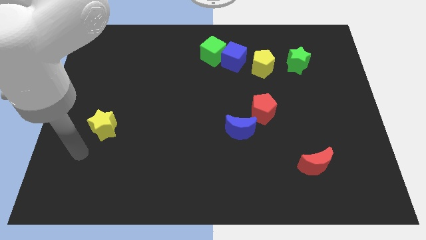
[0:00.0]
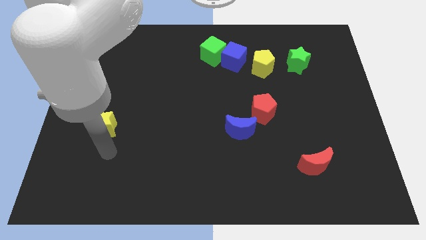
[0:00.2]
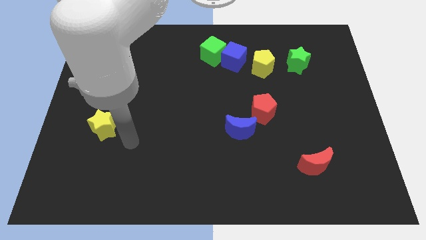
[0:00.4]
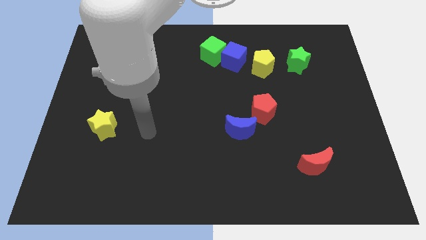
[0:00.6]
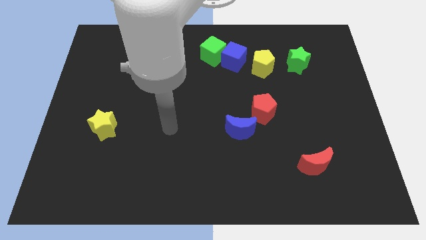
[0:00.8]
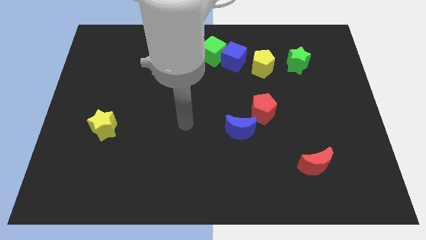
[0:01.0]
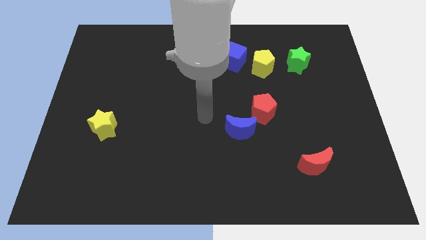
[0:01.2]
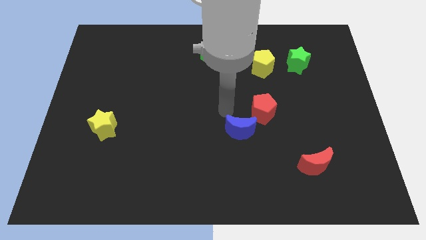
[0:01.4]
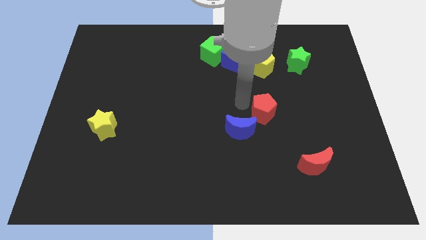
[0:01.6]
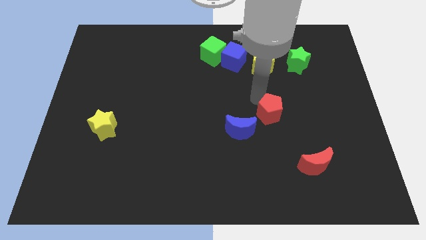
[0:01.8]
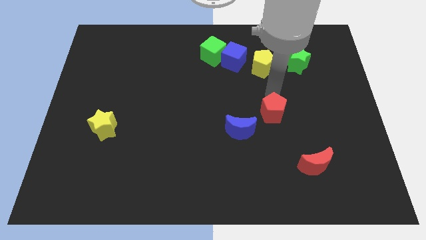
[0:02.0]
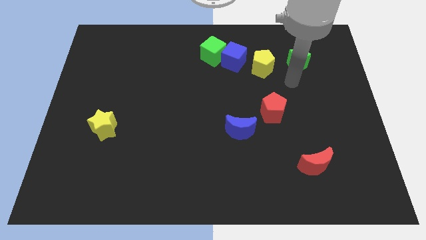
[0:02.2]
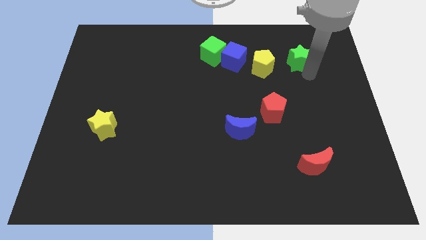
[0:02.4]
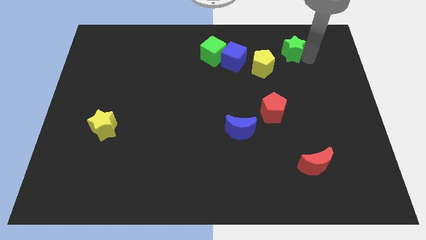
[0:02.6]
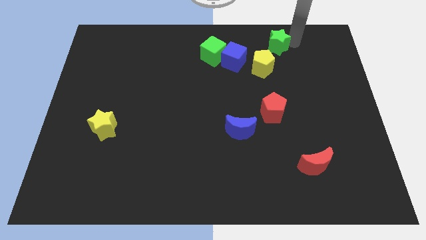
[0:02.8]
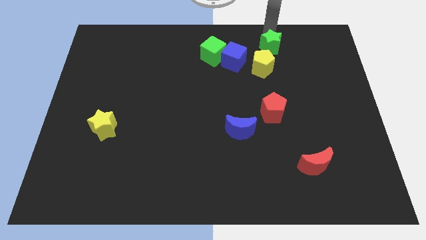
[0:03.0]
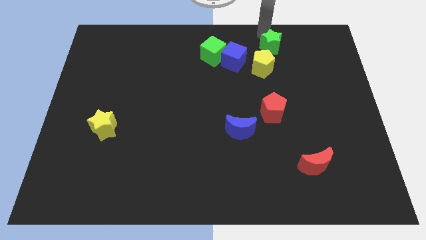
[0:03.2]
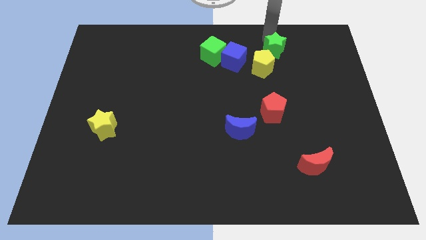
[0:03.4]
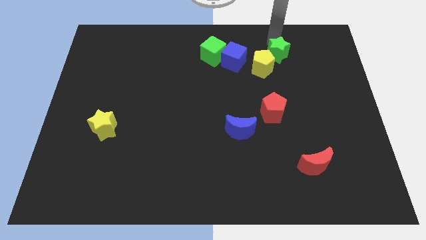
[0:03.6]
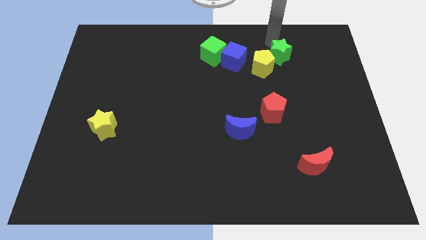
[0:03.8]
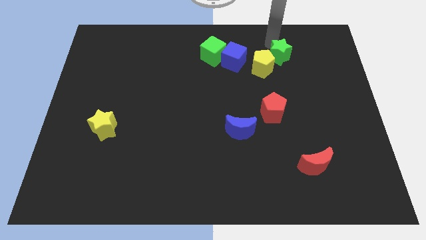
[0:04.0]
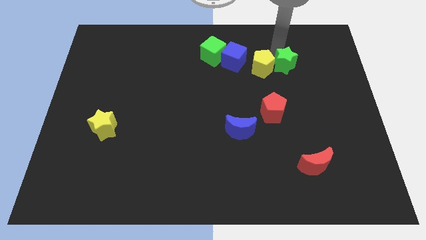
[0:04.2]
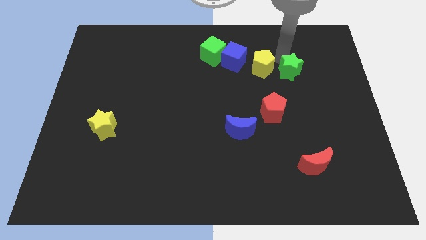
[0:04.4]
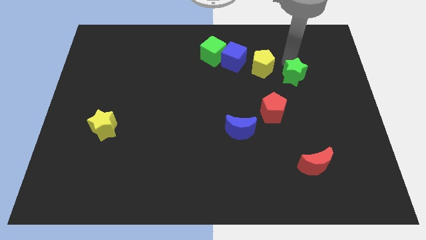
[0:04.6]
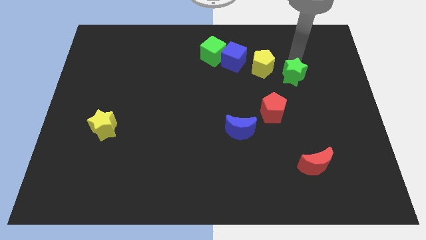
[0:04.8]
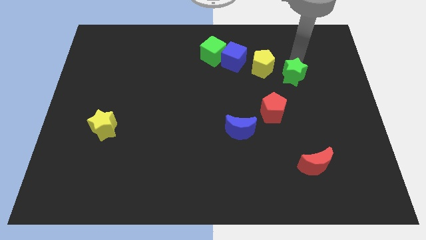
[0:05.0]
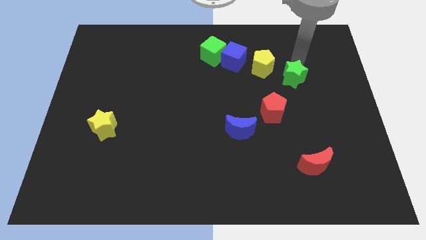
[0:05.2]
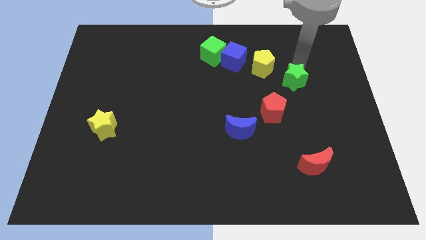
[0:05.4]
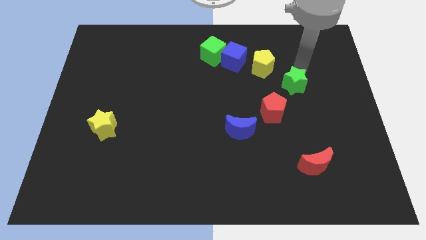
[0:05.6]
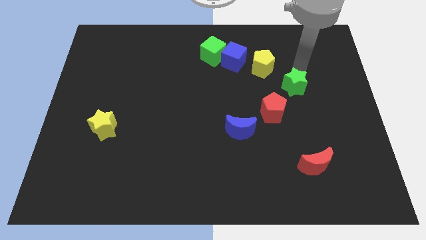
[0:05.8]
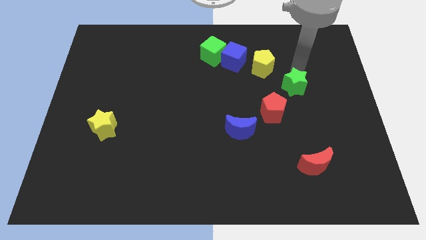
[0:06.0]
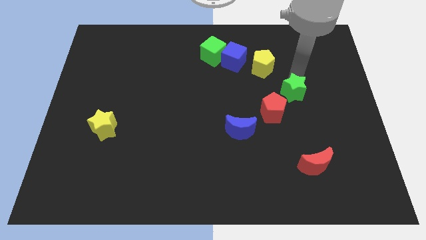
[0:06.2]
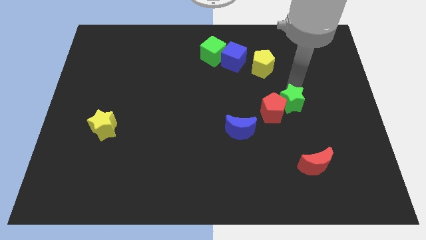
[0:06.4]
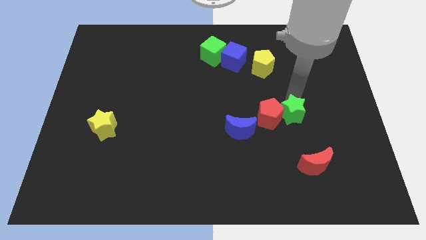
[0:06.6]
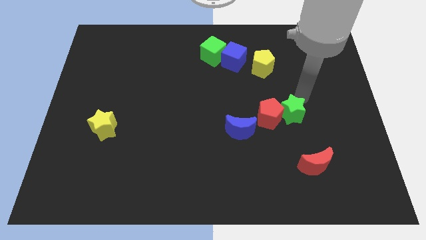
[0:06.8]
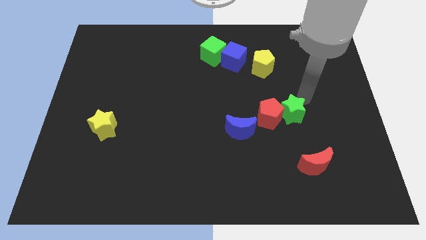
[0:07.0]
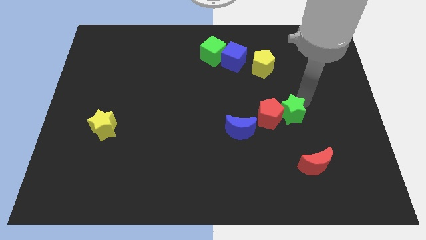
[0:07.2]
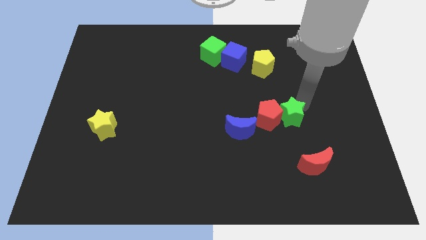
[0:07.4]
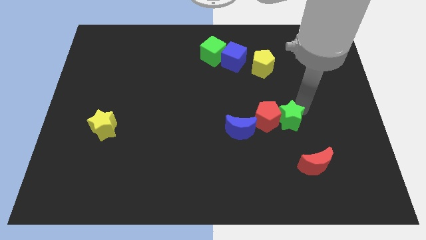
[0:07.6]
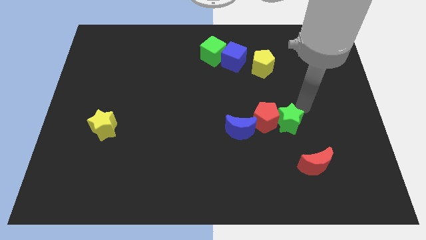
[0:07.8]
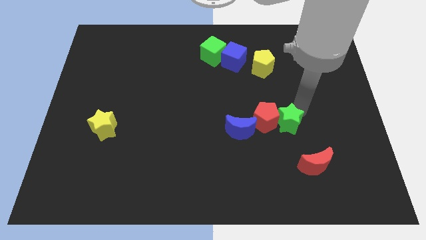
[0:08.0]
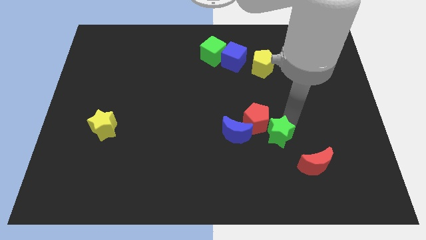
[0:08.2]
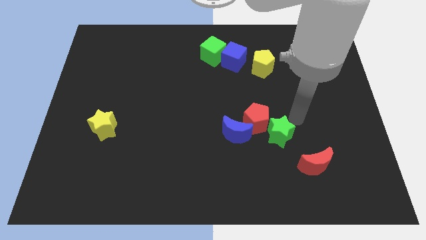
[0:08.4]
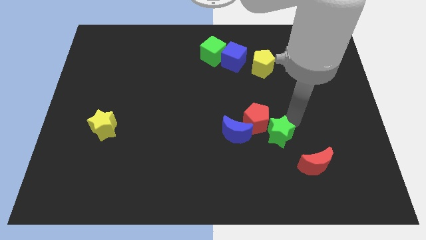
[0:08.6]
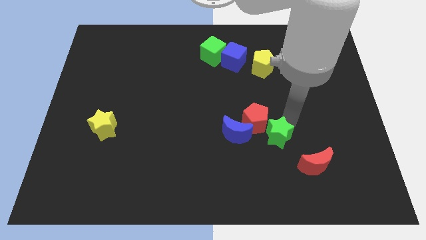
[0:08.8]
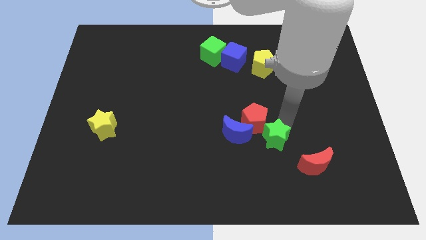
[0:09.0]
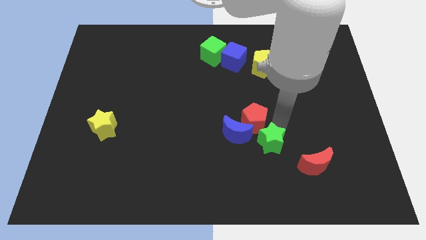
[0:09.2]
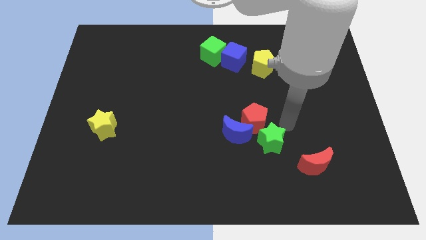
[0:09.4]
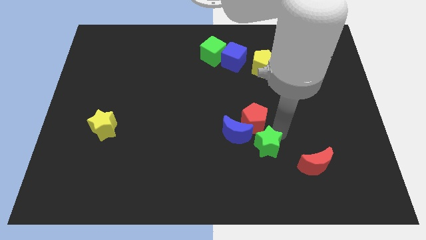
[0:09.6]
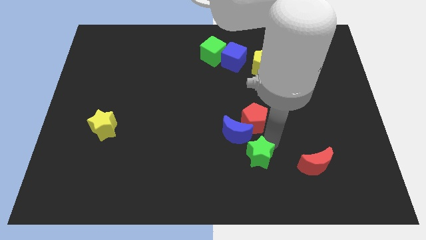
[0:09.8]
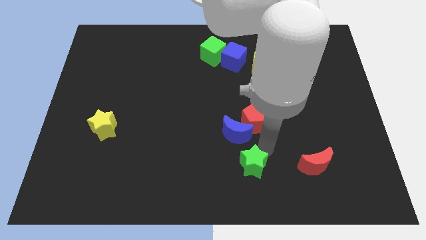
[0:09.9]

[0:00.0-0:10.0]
put the green star to the bottom side

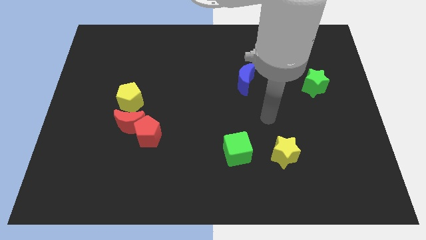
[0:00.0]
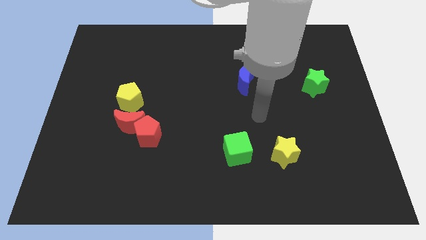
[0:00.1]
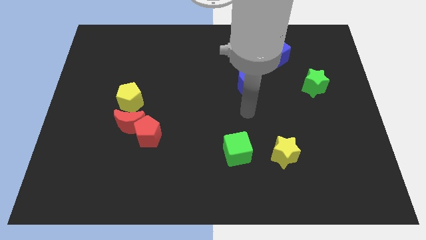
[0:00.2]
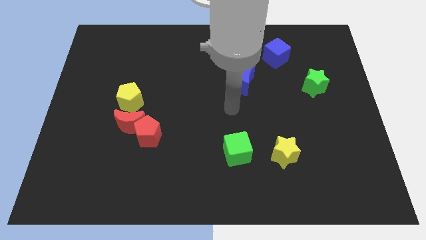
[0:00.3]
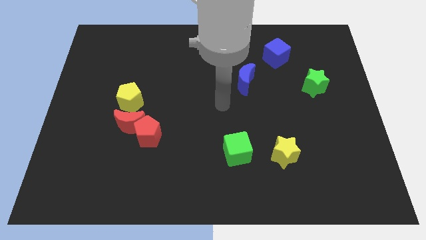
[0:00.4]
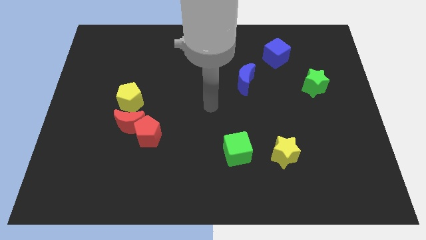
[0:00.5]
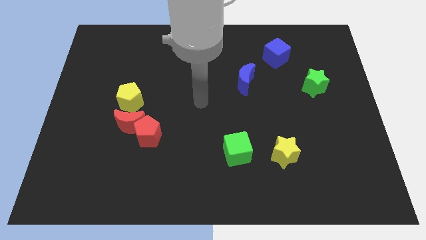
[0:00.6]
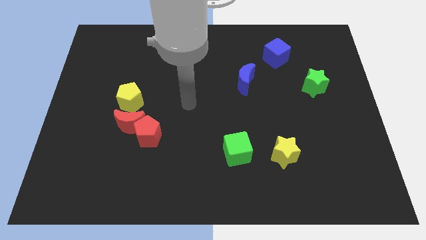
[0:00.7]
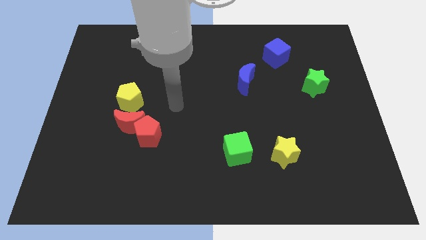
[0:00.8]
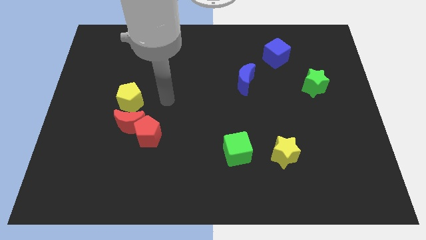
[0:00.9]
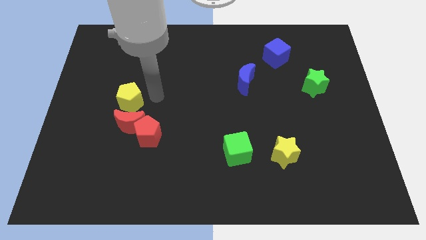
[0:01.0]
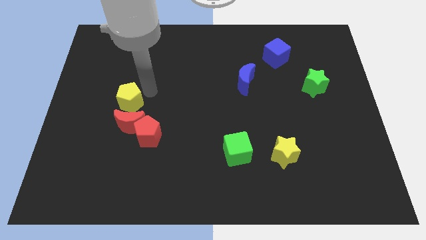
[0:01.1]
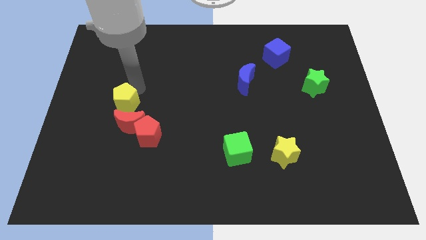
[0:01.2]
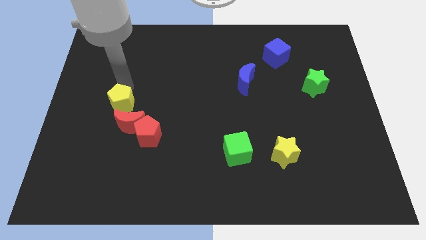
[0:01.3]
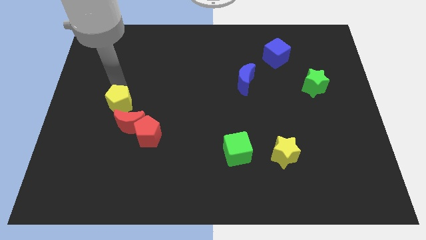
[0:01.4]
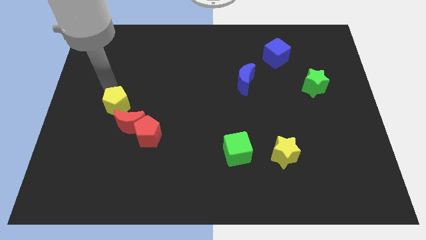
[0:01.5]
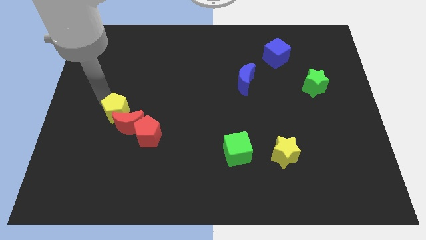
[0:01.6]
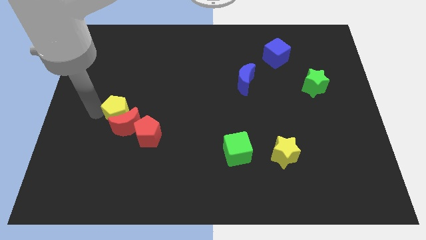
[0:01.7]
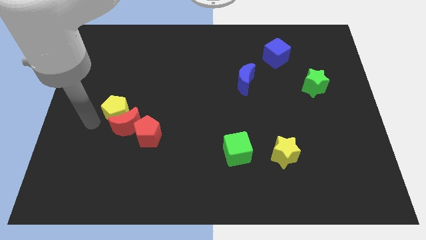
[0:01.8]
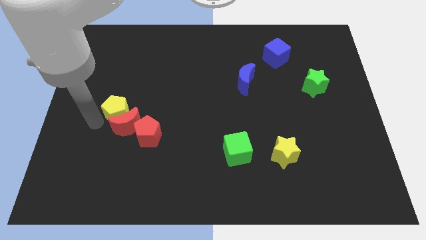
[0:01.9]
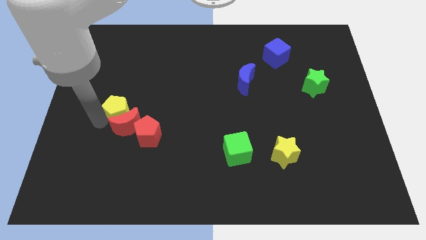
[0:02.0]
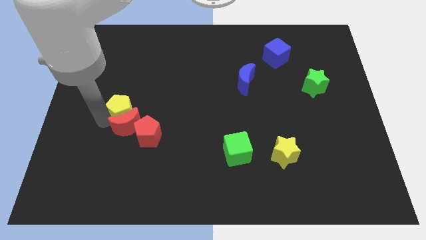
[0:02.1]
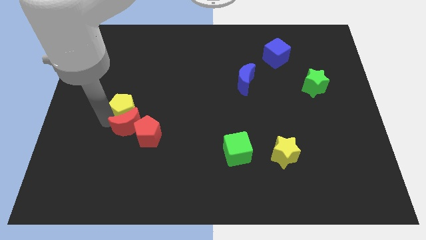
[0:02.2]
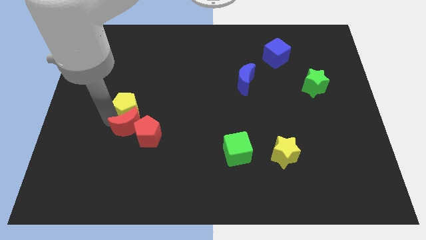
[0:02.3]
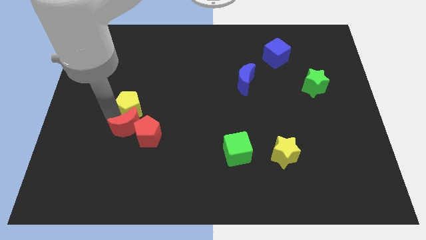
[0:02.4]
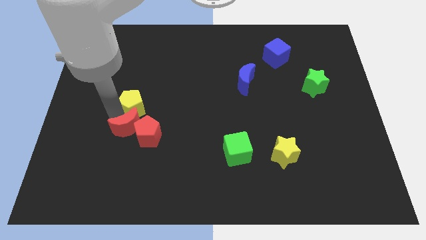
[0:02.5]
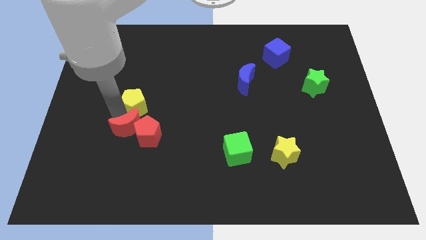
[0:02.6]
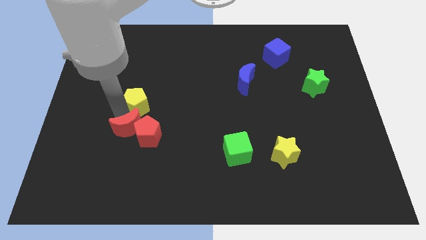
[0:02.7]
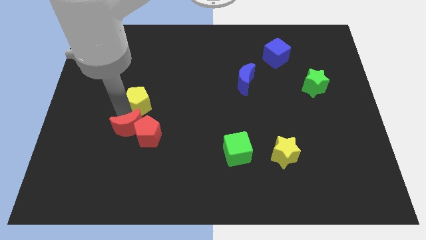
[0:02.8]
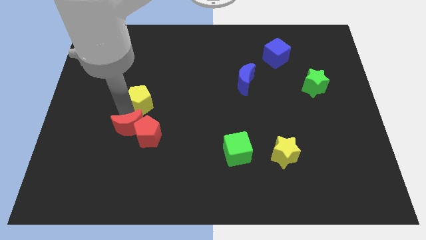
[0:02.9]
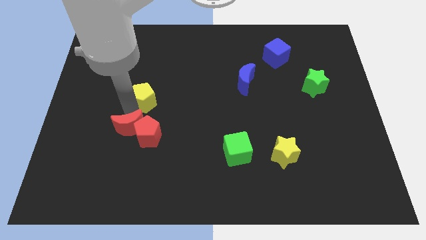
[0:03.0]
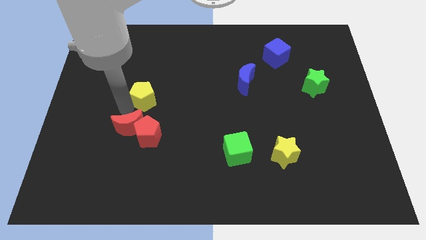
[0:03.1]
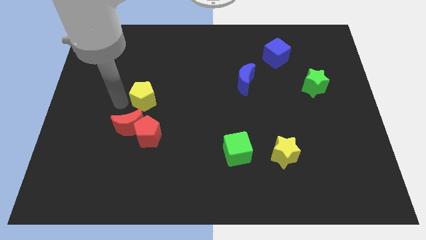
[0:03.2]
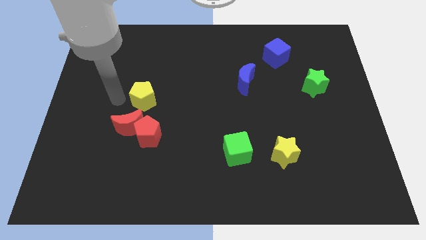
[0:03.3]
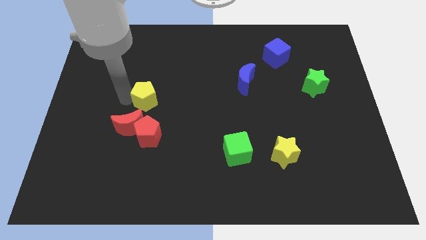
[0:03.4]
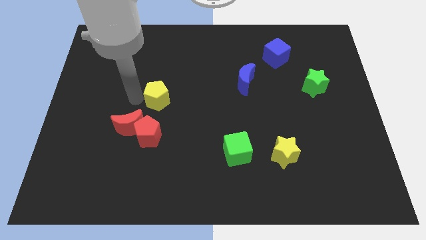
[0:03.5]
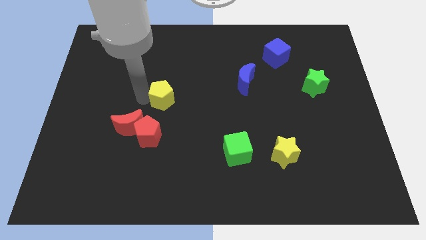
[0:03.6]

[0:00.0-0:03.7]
put the yellow pentagon to the middle

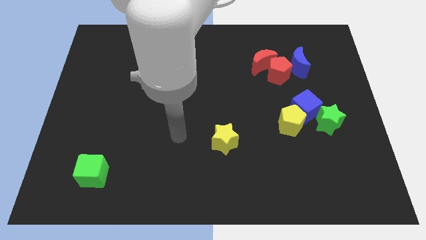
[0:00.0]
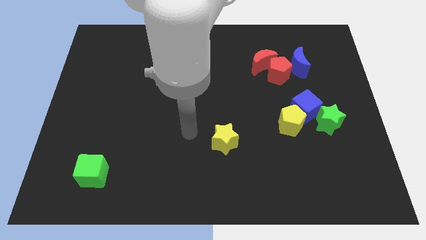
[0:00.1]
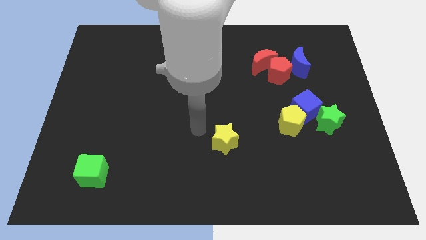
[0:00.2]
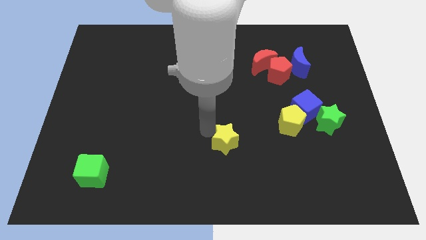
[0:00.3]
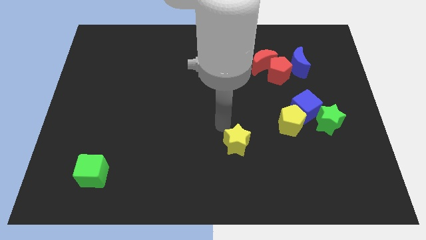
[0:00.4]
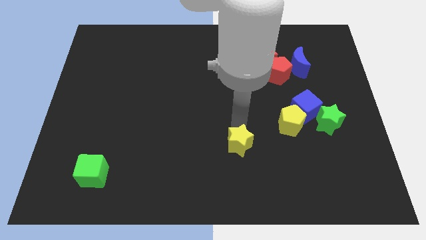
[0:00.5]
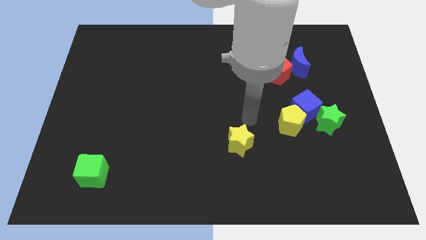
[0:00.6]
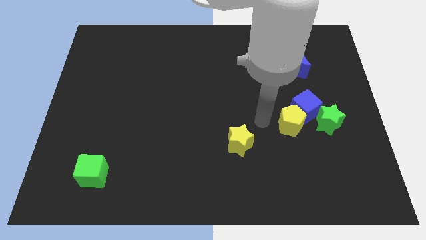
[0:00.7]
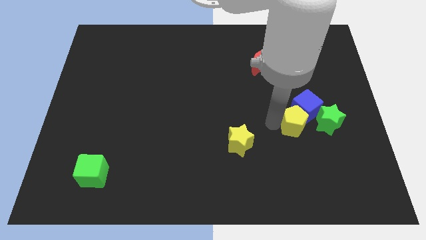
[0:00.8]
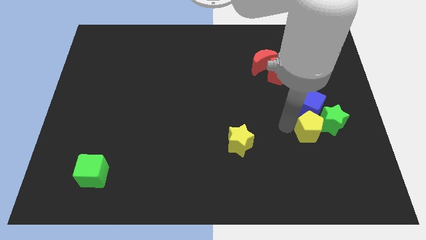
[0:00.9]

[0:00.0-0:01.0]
push the green star to the right side of the board
